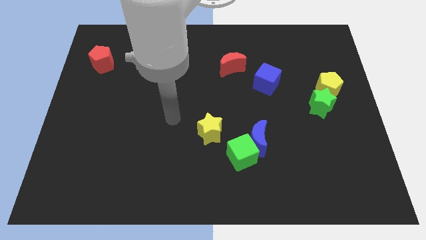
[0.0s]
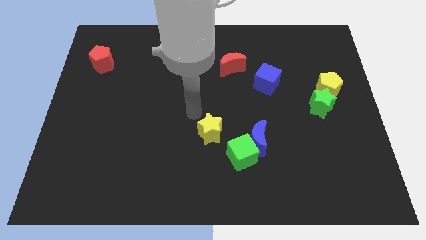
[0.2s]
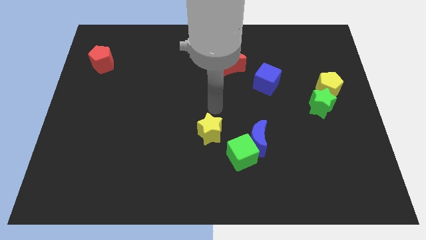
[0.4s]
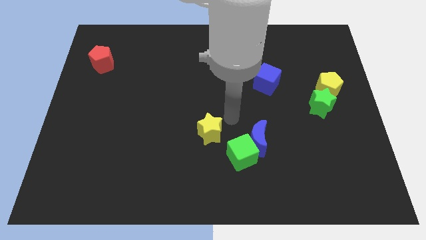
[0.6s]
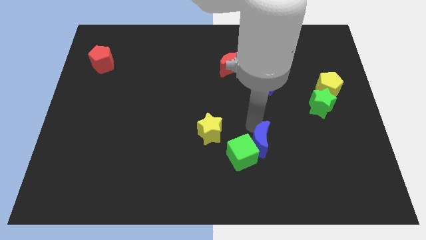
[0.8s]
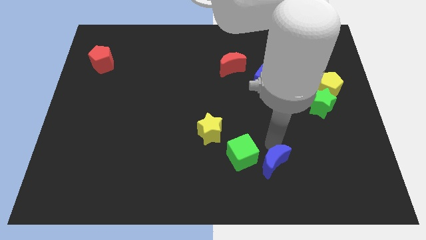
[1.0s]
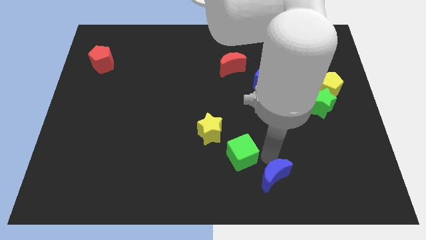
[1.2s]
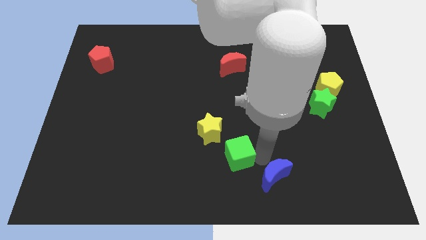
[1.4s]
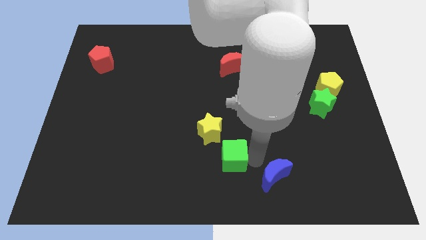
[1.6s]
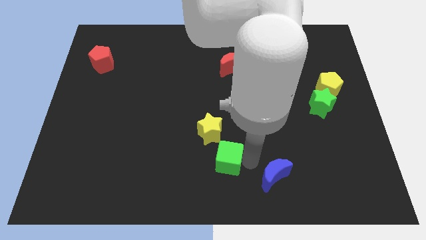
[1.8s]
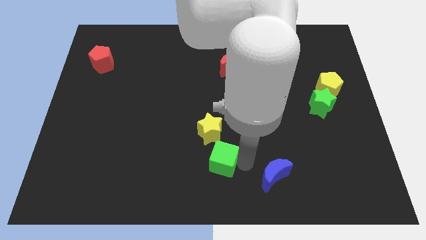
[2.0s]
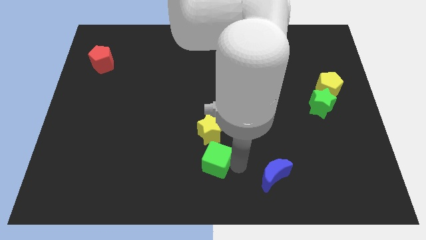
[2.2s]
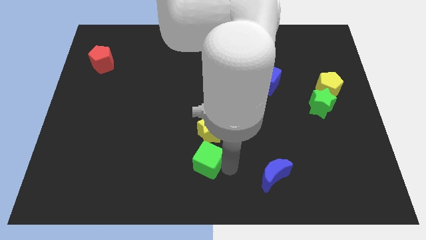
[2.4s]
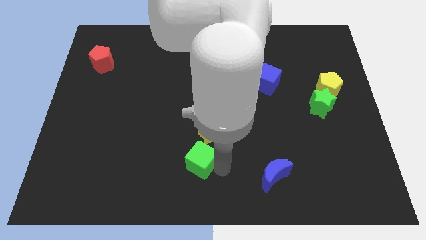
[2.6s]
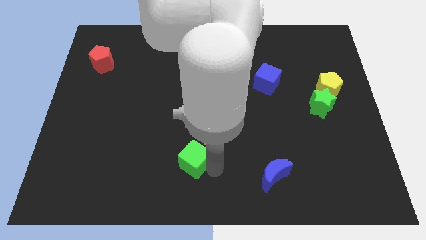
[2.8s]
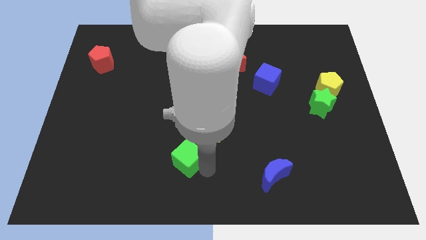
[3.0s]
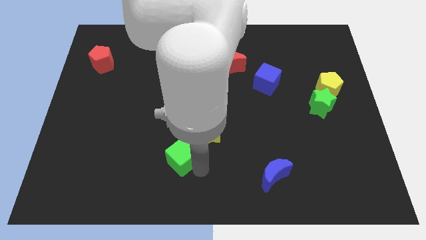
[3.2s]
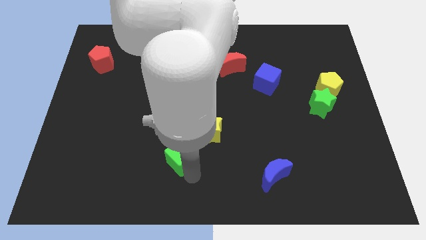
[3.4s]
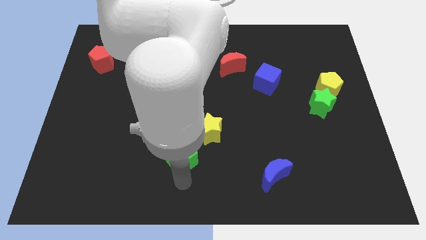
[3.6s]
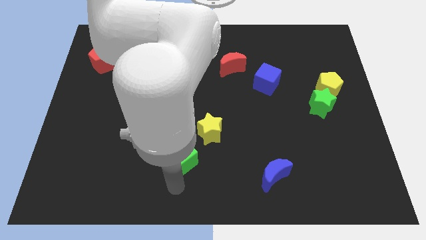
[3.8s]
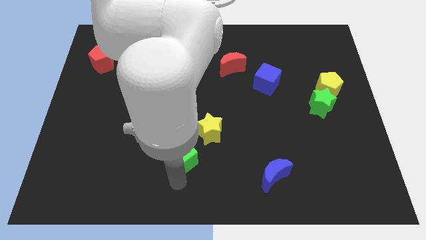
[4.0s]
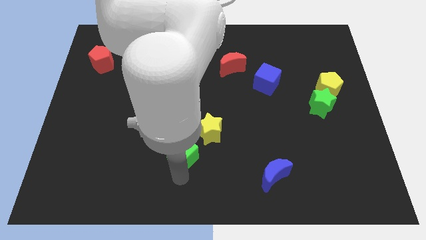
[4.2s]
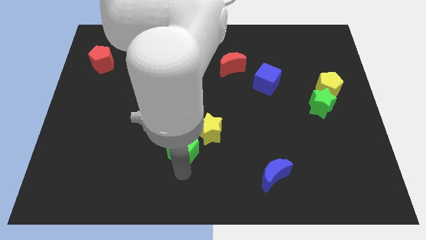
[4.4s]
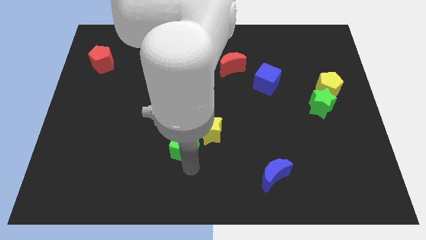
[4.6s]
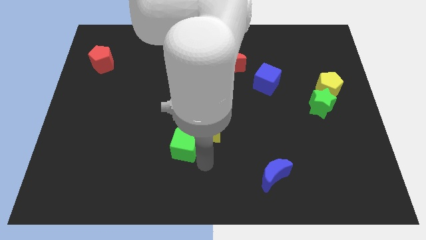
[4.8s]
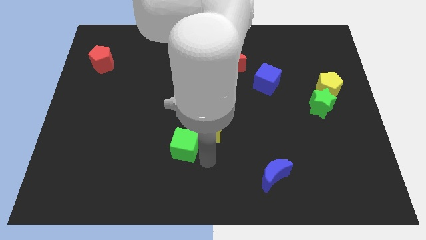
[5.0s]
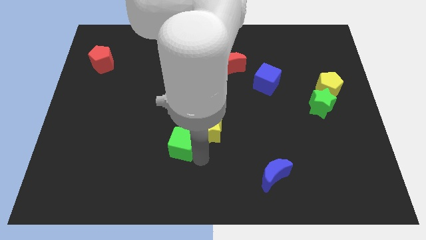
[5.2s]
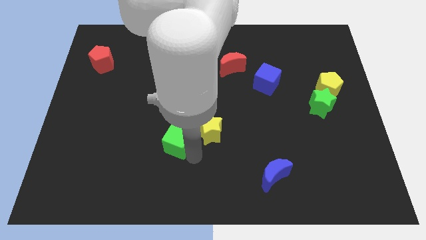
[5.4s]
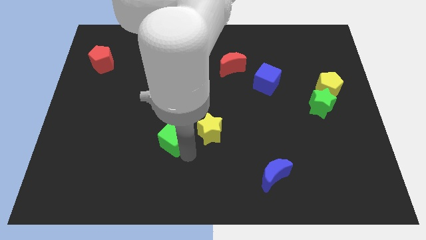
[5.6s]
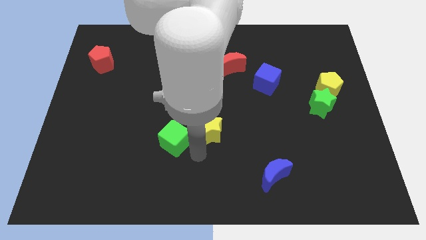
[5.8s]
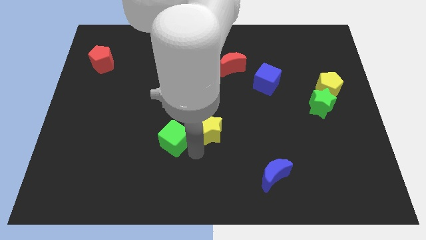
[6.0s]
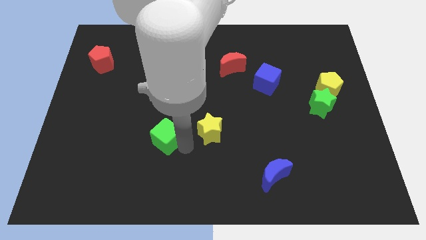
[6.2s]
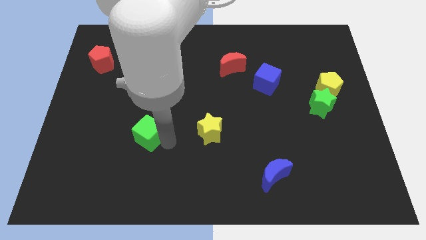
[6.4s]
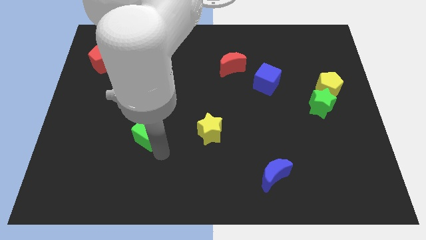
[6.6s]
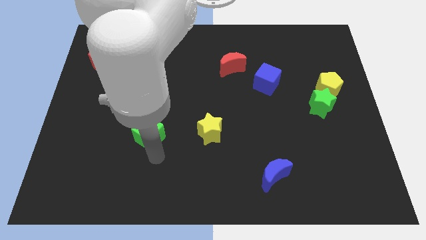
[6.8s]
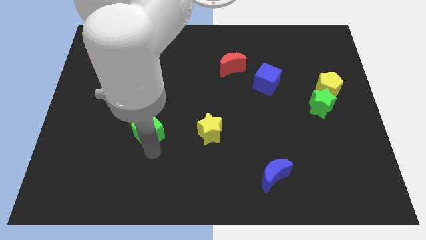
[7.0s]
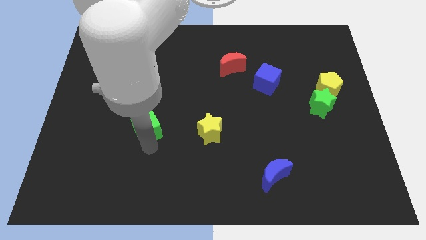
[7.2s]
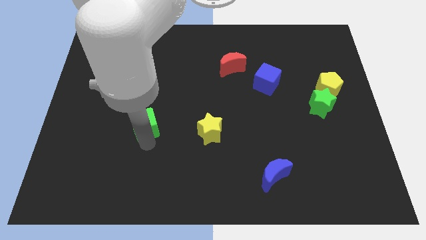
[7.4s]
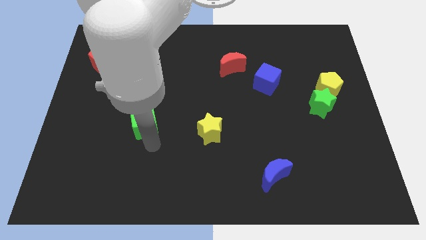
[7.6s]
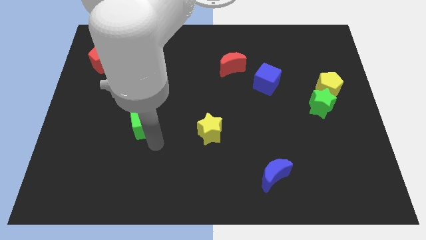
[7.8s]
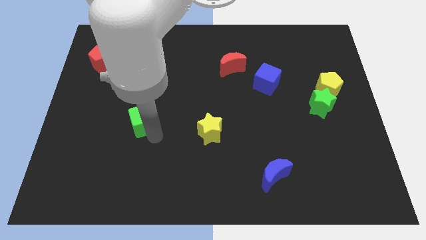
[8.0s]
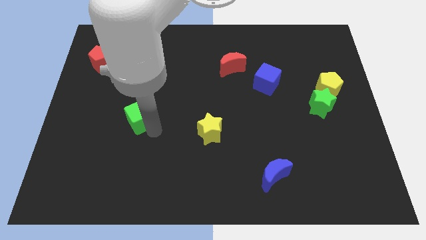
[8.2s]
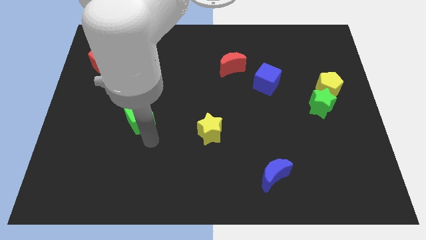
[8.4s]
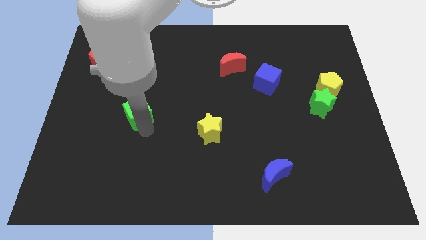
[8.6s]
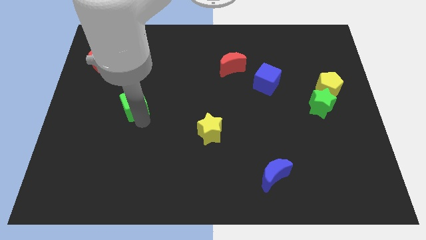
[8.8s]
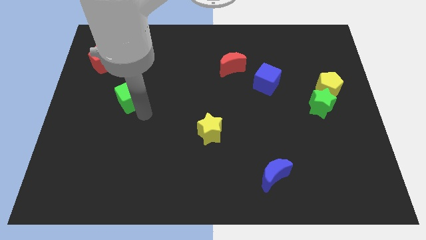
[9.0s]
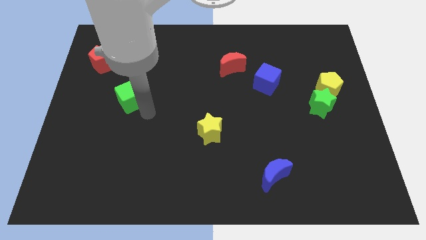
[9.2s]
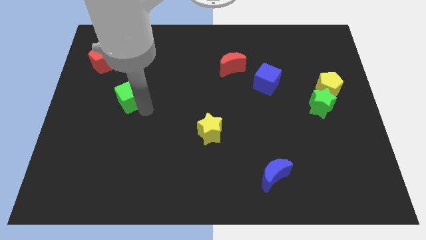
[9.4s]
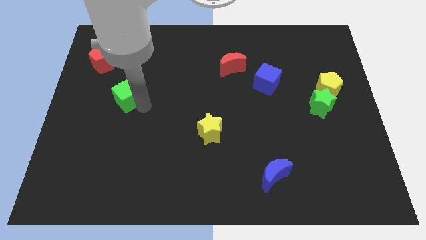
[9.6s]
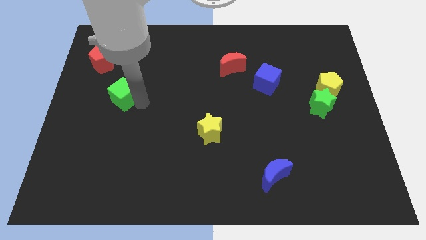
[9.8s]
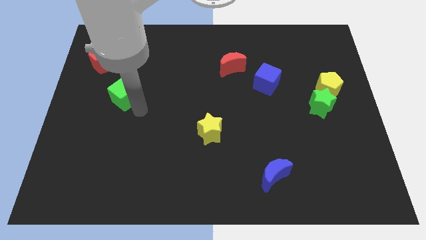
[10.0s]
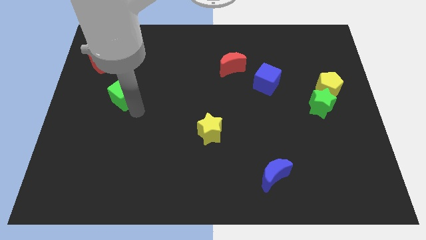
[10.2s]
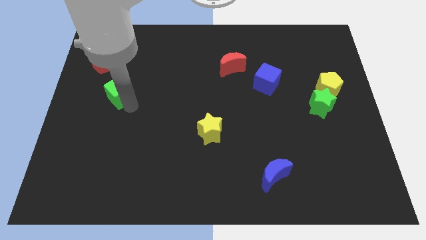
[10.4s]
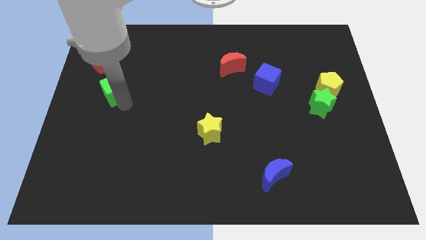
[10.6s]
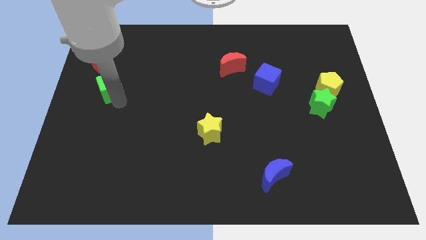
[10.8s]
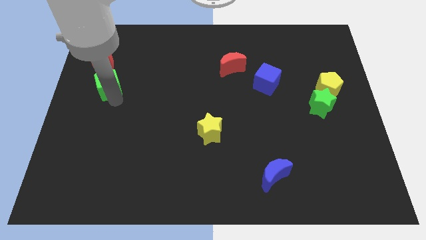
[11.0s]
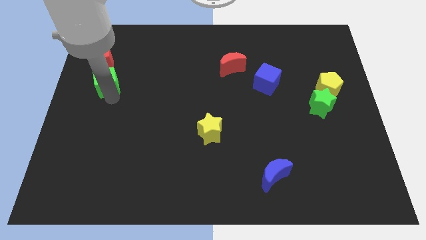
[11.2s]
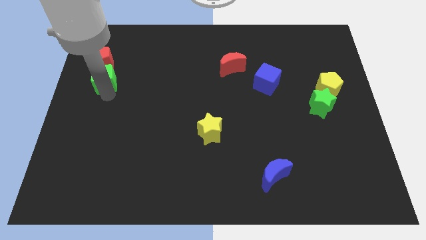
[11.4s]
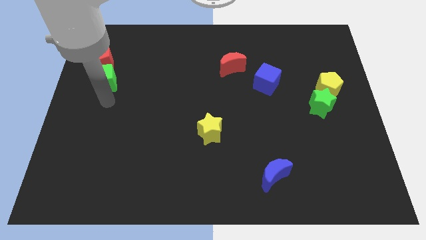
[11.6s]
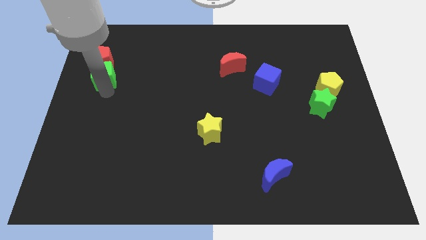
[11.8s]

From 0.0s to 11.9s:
slide the green cube close to the red pentagon

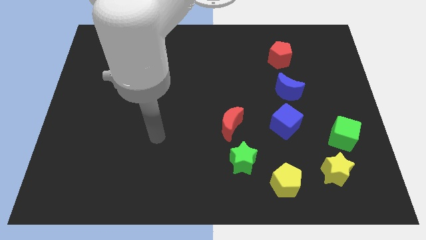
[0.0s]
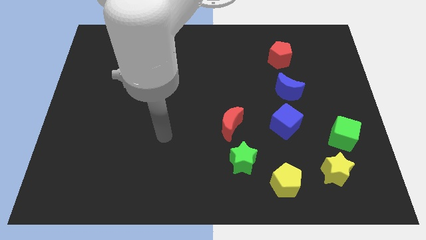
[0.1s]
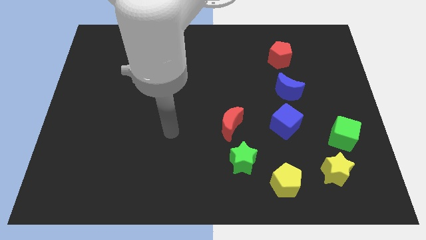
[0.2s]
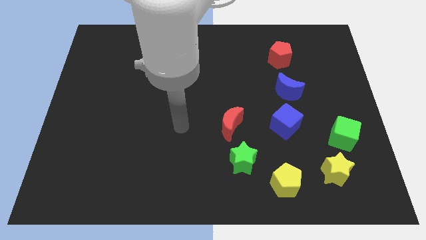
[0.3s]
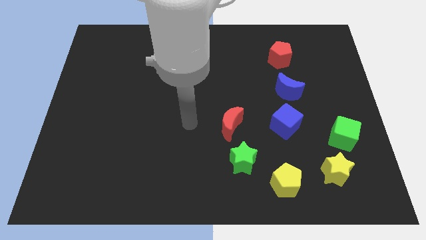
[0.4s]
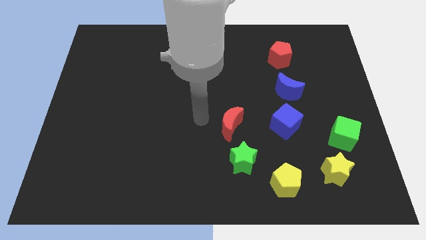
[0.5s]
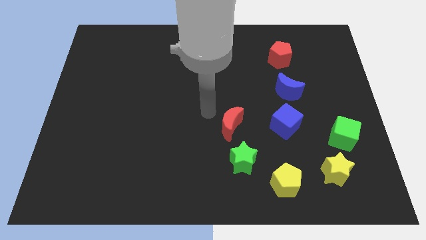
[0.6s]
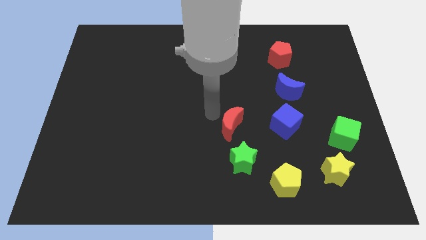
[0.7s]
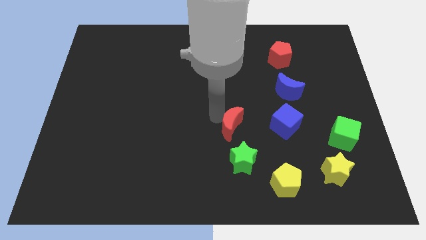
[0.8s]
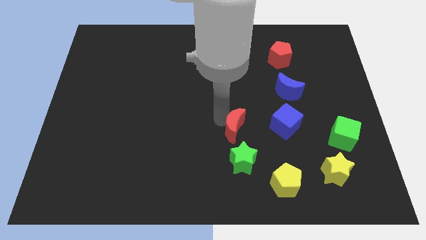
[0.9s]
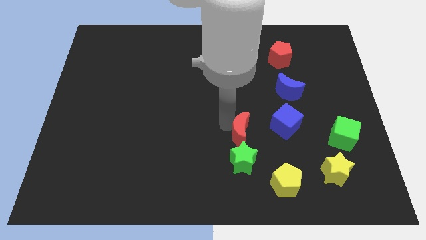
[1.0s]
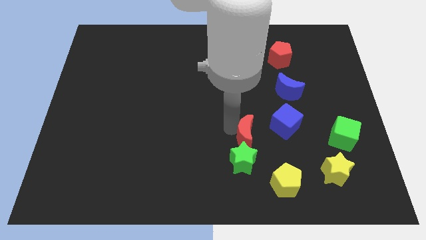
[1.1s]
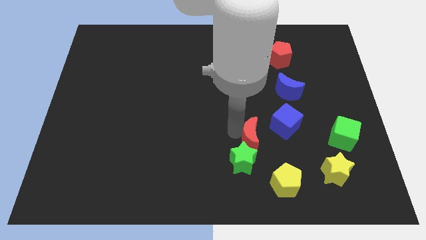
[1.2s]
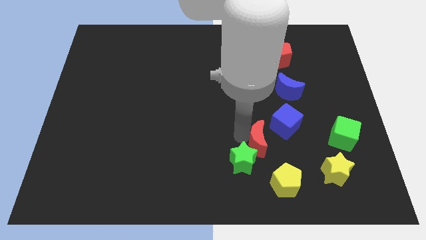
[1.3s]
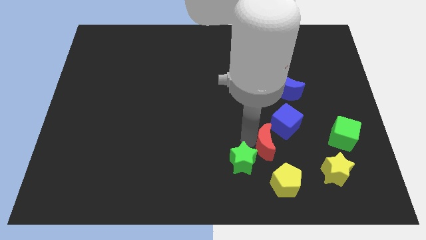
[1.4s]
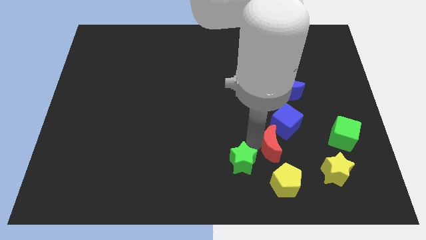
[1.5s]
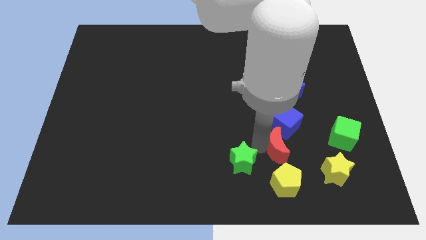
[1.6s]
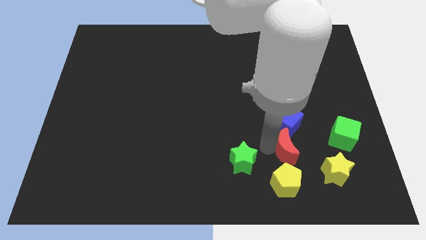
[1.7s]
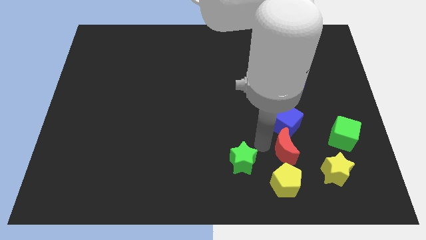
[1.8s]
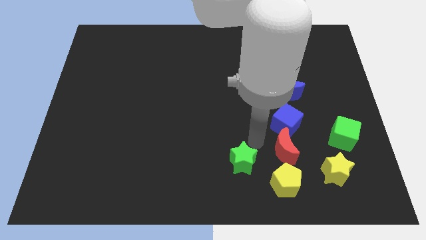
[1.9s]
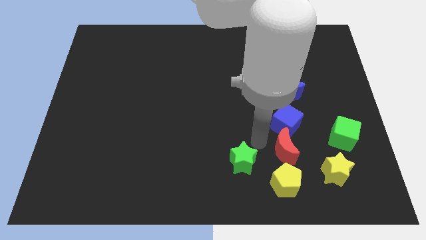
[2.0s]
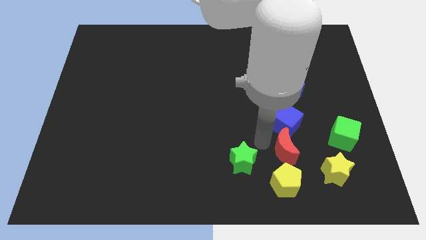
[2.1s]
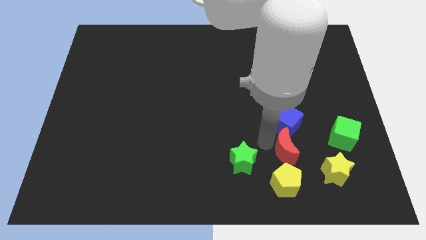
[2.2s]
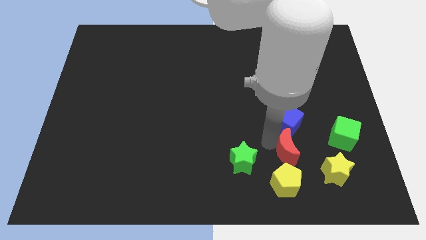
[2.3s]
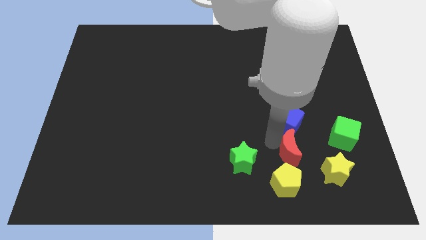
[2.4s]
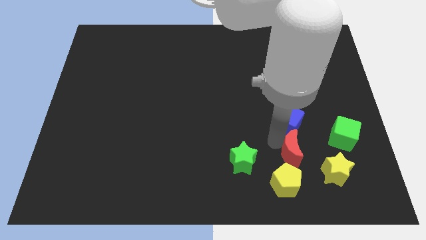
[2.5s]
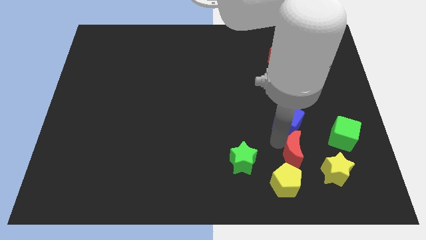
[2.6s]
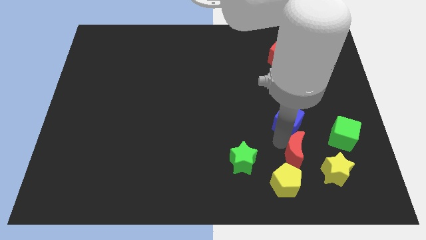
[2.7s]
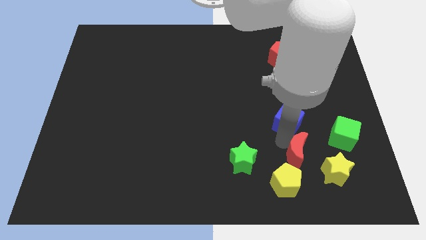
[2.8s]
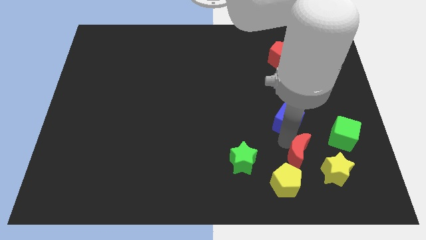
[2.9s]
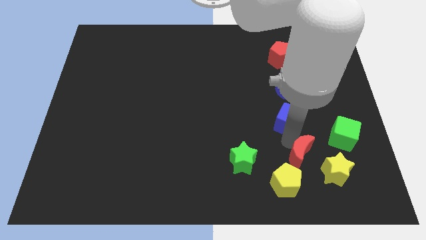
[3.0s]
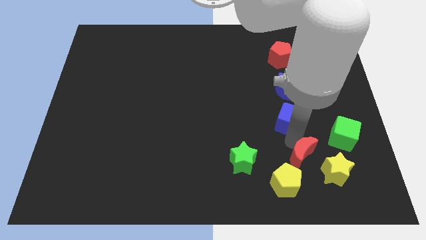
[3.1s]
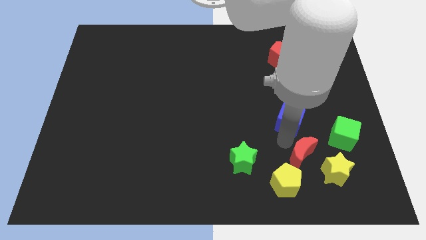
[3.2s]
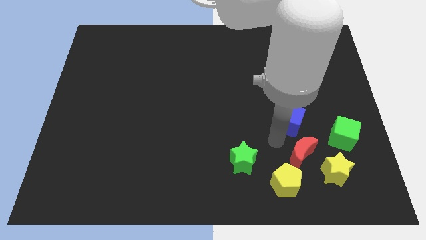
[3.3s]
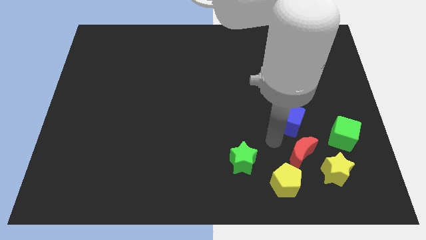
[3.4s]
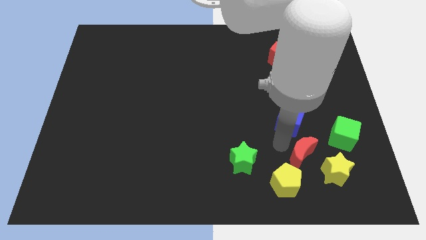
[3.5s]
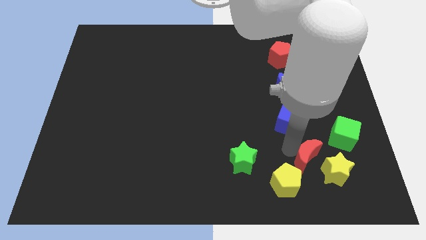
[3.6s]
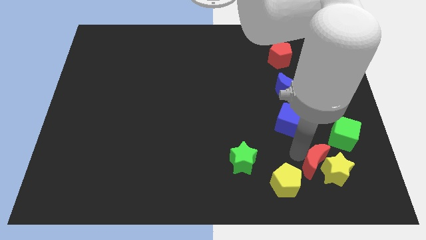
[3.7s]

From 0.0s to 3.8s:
put the red moon to the yellow star
